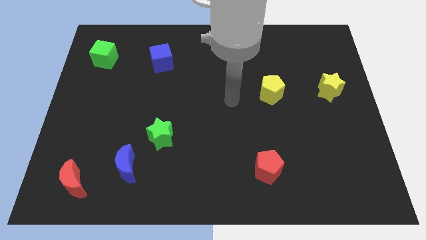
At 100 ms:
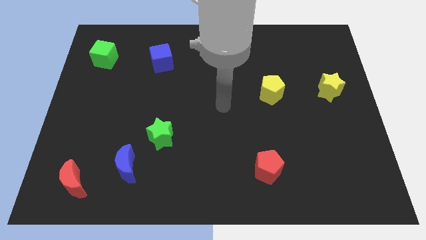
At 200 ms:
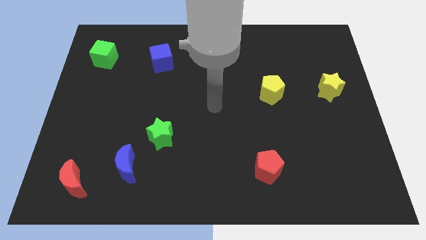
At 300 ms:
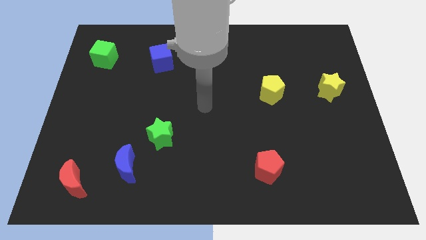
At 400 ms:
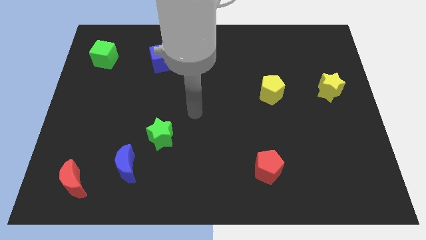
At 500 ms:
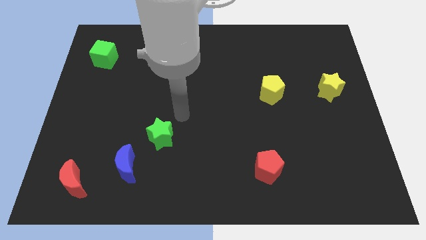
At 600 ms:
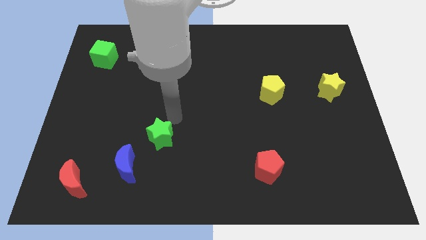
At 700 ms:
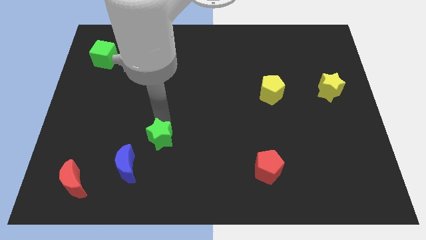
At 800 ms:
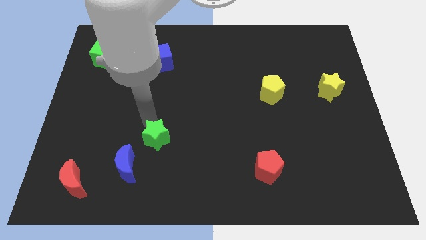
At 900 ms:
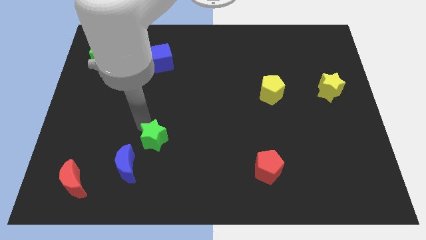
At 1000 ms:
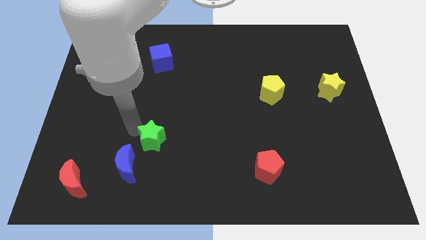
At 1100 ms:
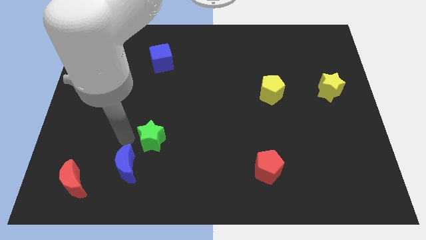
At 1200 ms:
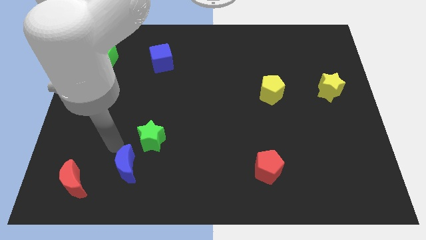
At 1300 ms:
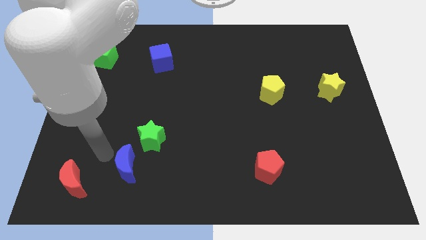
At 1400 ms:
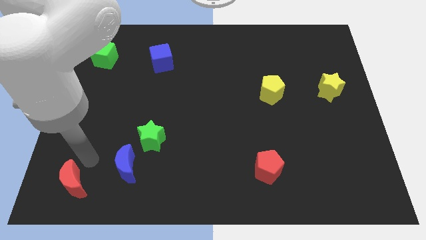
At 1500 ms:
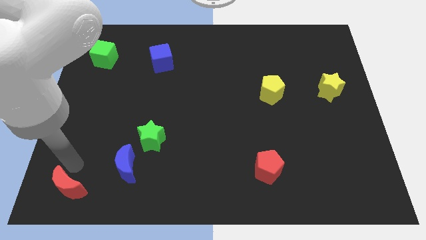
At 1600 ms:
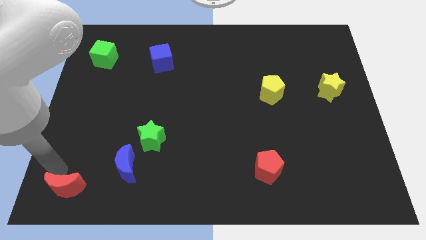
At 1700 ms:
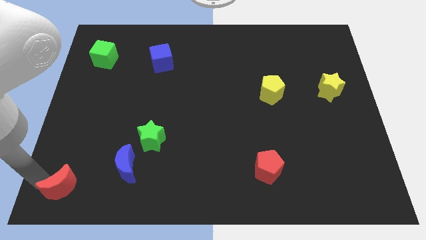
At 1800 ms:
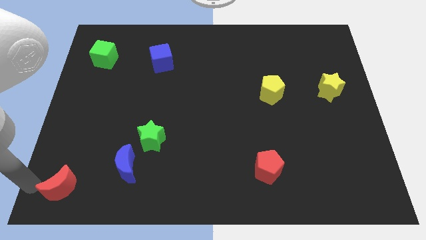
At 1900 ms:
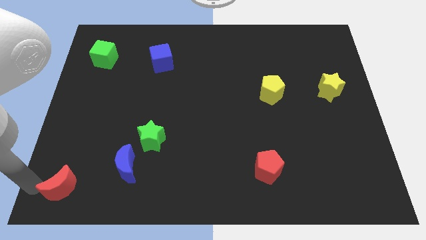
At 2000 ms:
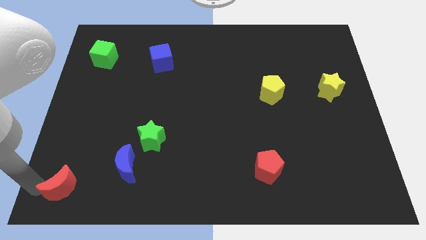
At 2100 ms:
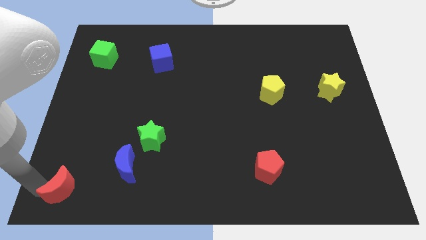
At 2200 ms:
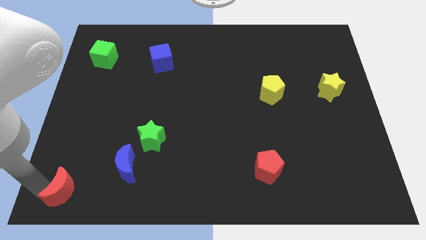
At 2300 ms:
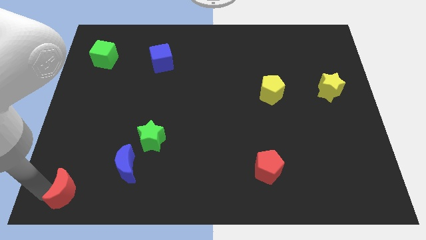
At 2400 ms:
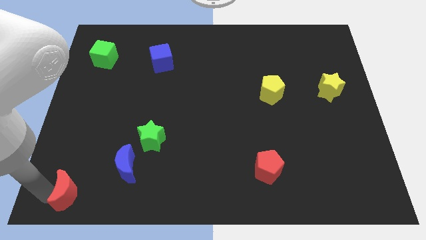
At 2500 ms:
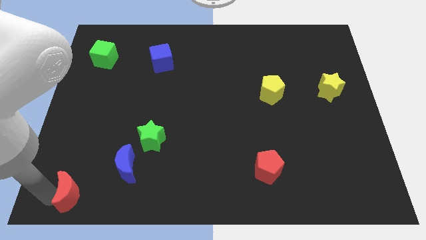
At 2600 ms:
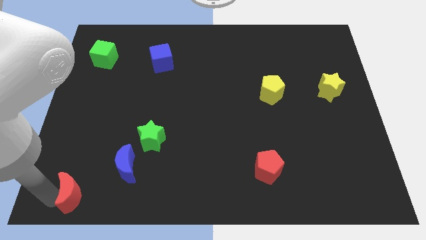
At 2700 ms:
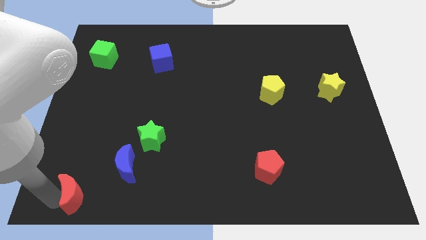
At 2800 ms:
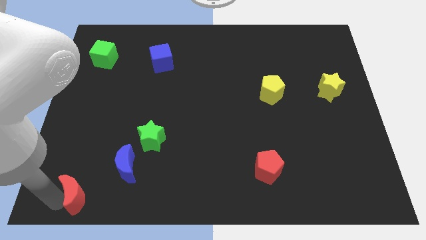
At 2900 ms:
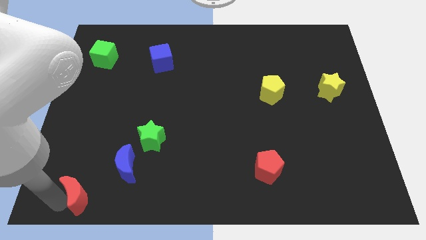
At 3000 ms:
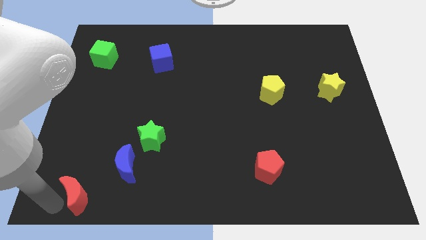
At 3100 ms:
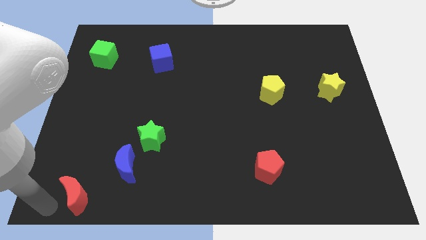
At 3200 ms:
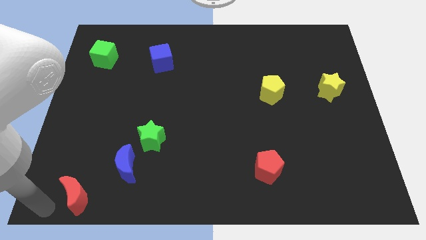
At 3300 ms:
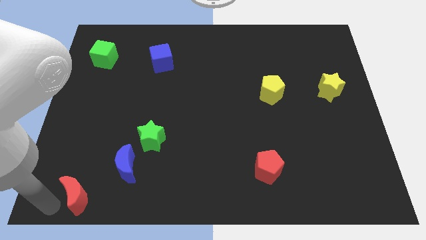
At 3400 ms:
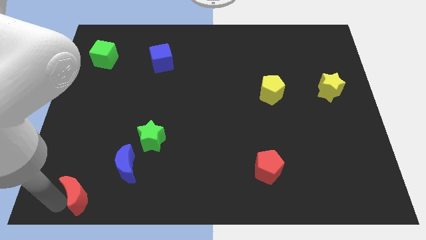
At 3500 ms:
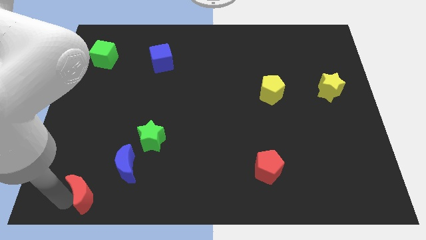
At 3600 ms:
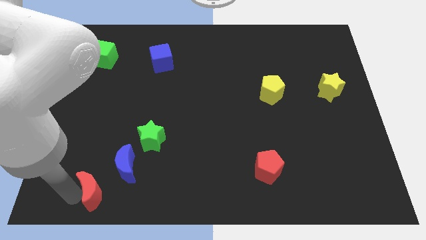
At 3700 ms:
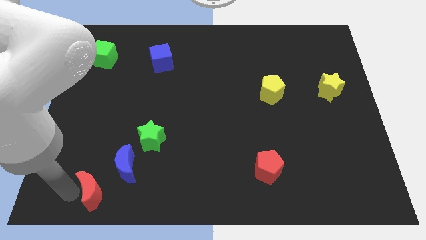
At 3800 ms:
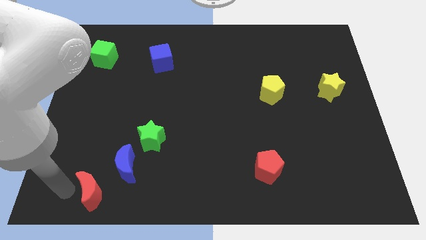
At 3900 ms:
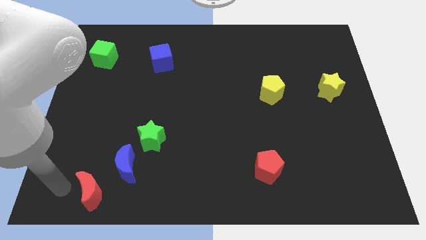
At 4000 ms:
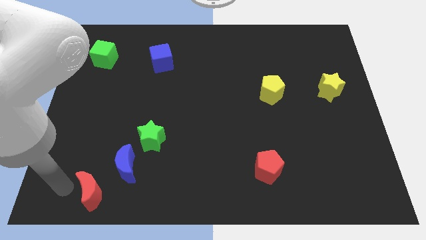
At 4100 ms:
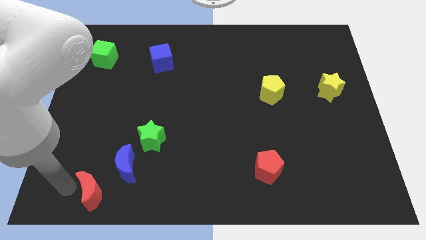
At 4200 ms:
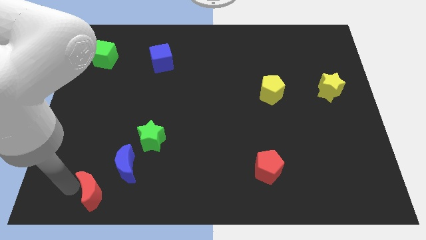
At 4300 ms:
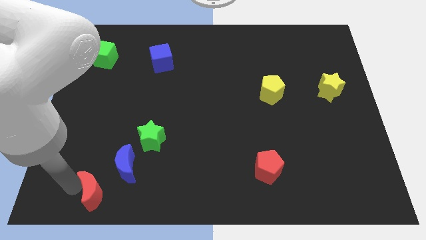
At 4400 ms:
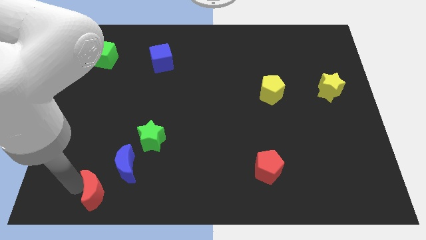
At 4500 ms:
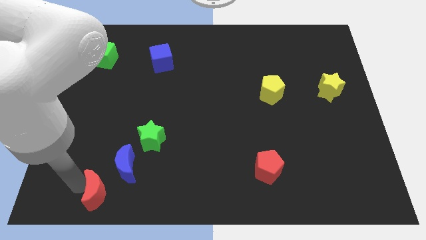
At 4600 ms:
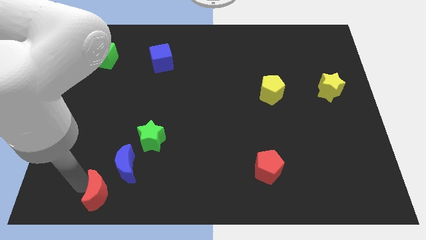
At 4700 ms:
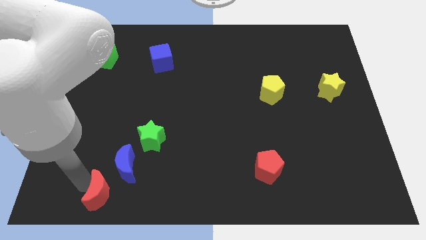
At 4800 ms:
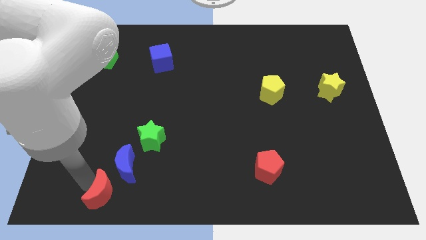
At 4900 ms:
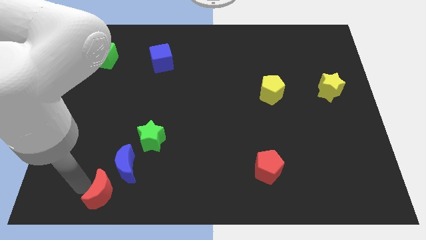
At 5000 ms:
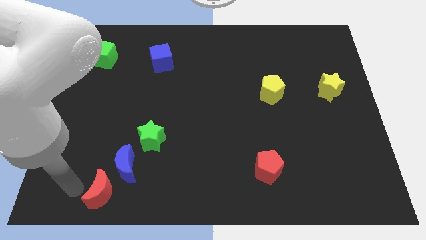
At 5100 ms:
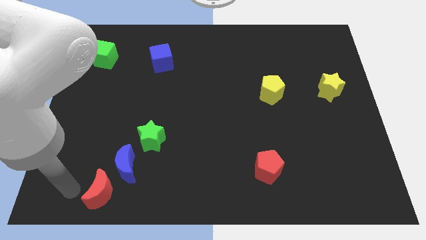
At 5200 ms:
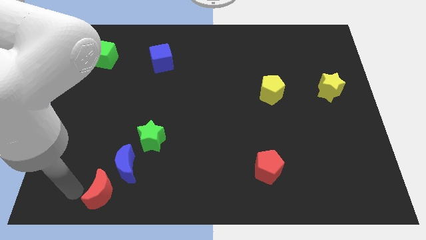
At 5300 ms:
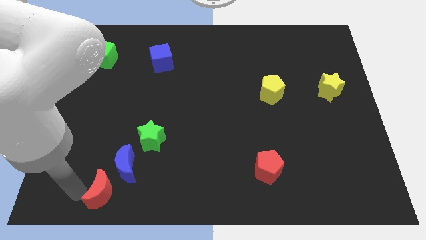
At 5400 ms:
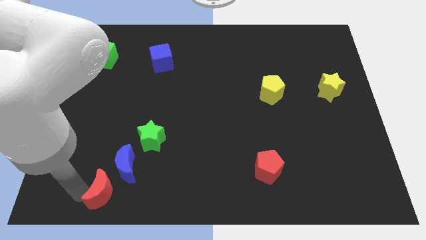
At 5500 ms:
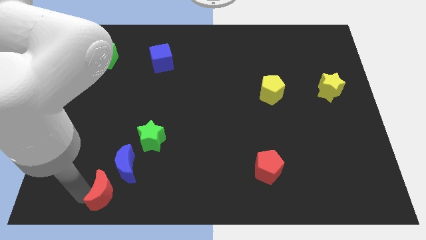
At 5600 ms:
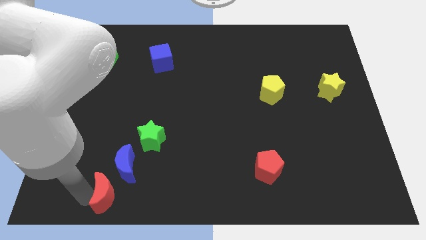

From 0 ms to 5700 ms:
move the red moon to the right somewhat

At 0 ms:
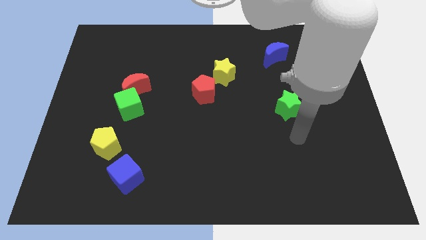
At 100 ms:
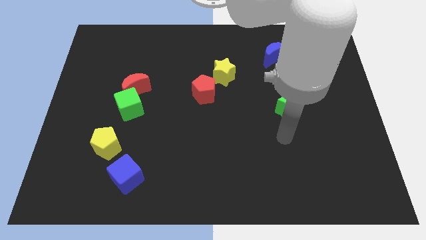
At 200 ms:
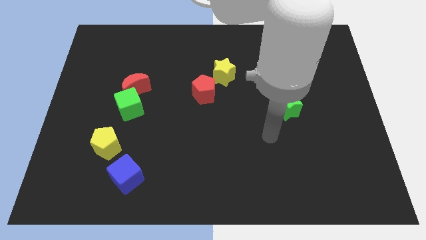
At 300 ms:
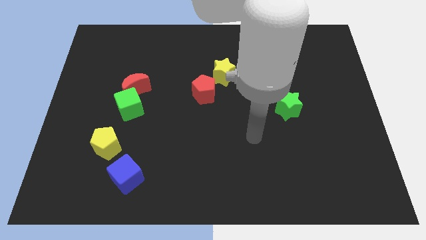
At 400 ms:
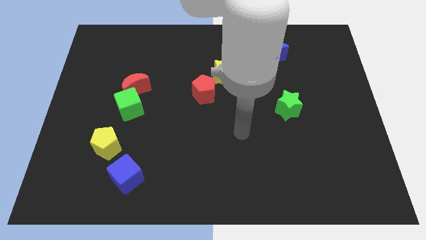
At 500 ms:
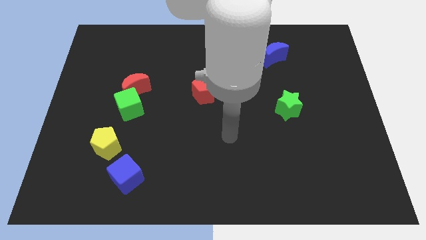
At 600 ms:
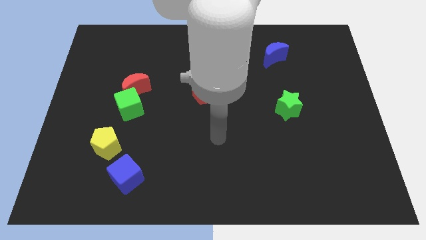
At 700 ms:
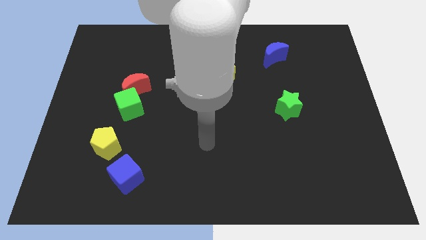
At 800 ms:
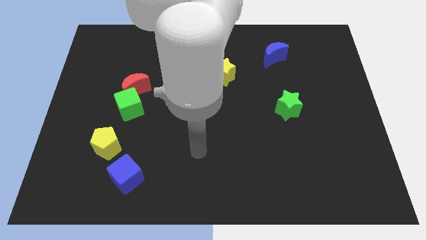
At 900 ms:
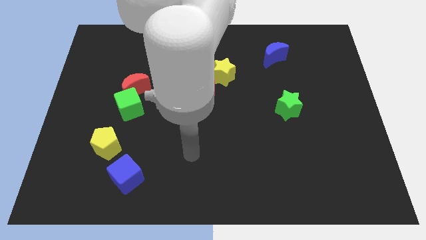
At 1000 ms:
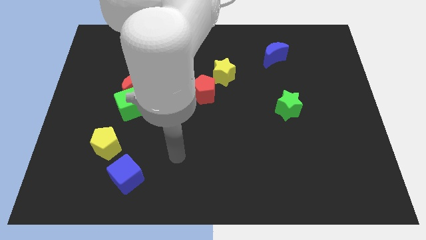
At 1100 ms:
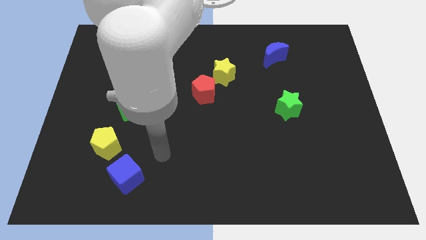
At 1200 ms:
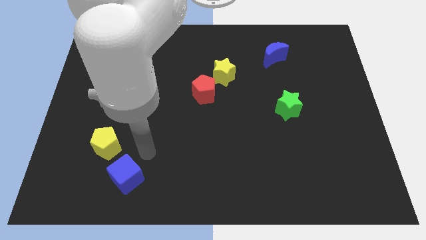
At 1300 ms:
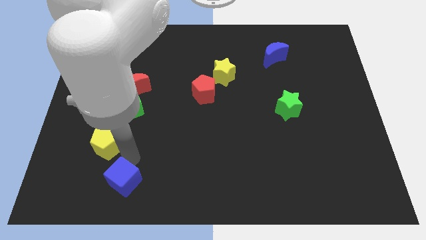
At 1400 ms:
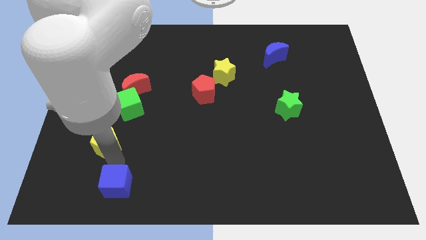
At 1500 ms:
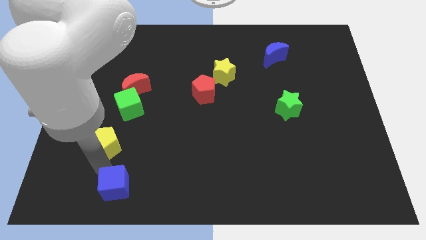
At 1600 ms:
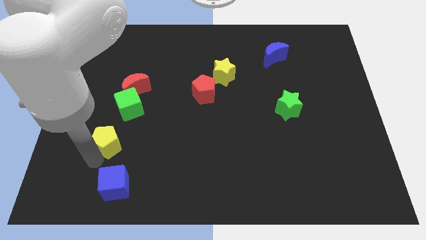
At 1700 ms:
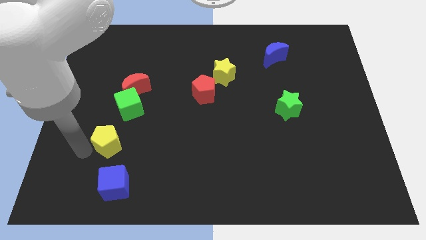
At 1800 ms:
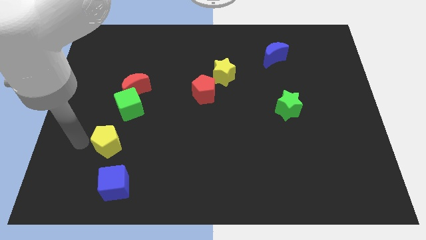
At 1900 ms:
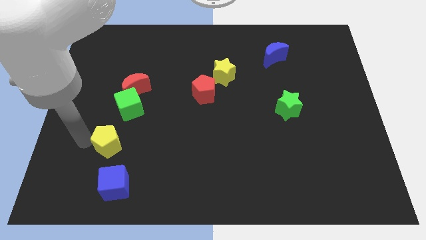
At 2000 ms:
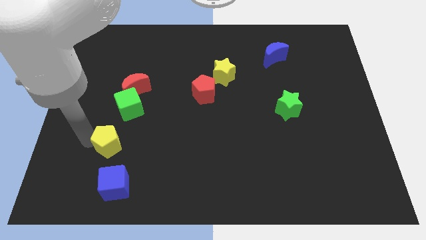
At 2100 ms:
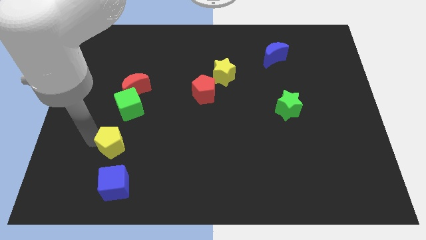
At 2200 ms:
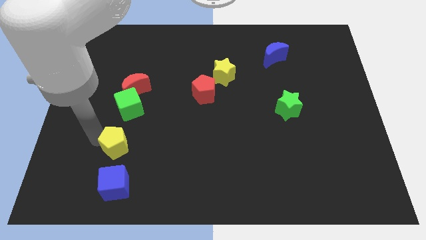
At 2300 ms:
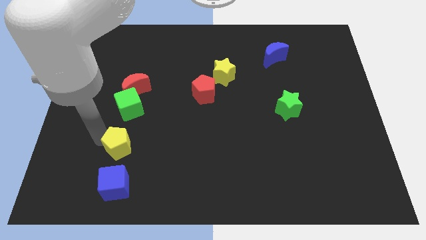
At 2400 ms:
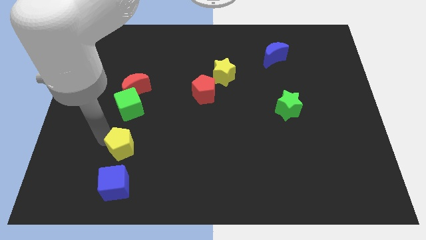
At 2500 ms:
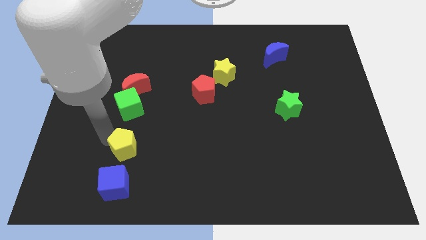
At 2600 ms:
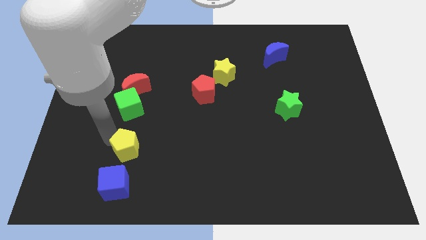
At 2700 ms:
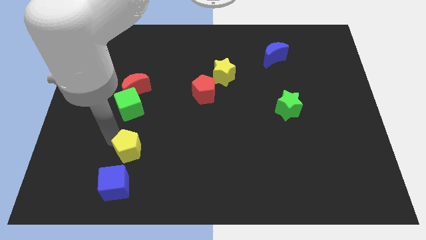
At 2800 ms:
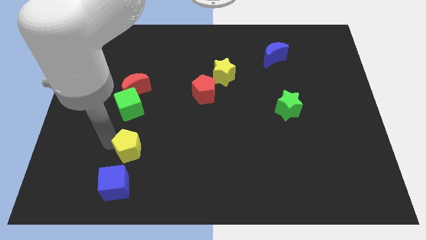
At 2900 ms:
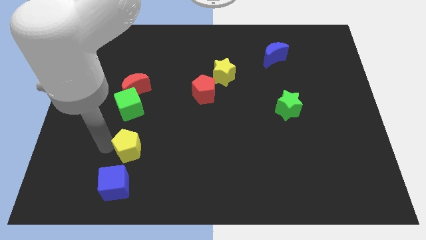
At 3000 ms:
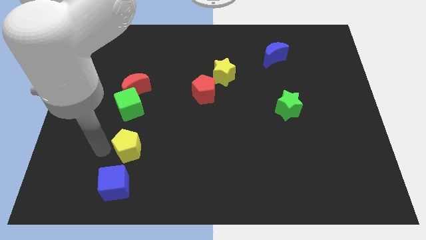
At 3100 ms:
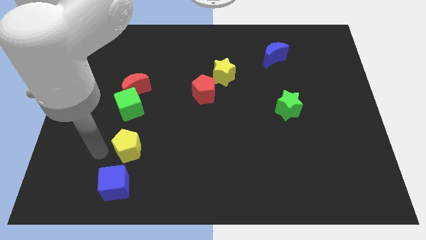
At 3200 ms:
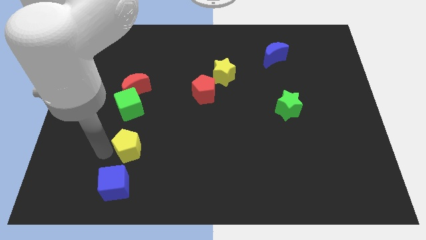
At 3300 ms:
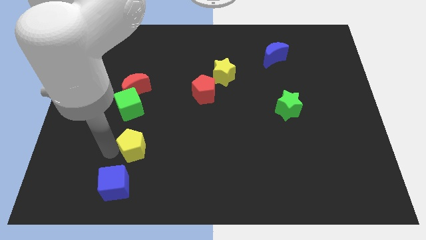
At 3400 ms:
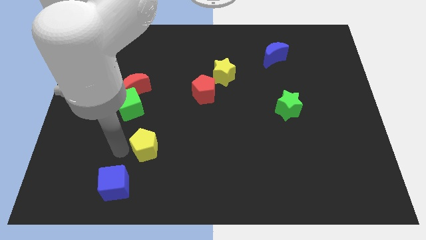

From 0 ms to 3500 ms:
push the yellow pentagon to the right a little
